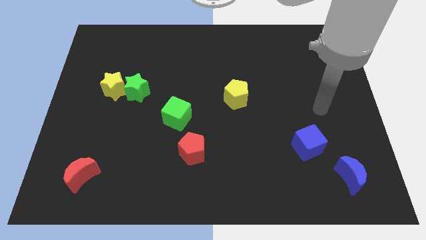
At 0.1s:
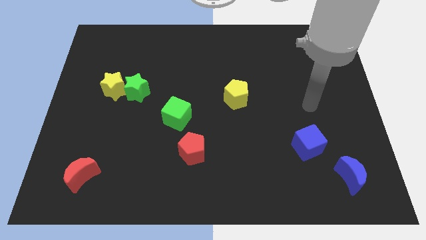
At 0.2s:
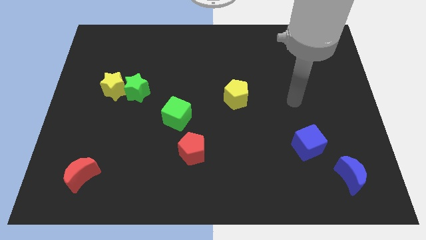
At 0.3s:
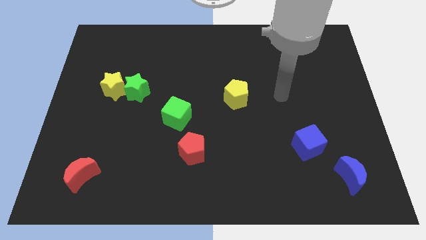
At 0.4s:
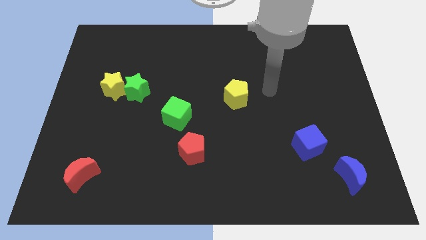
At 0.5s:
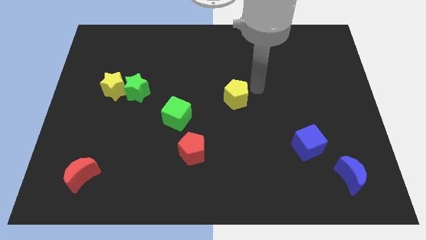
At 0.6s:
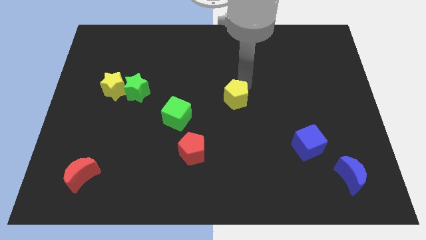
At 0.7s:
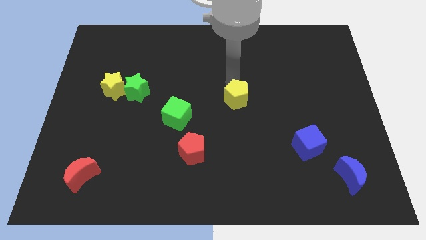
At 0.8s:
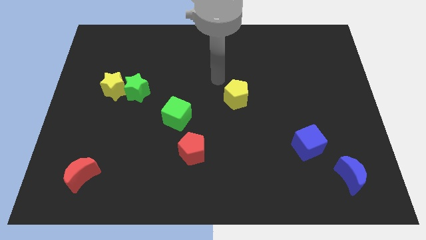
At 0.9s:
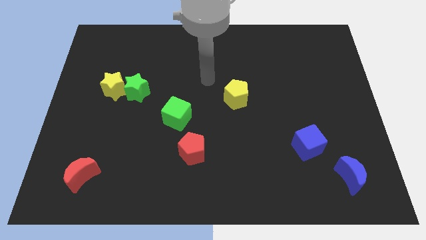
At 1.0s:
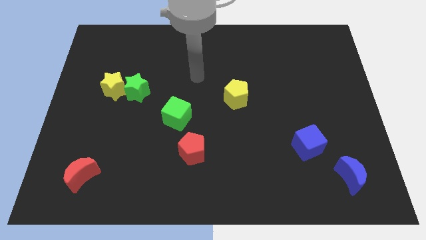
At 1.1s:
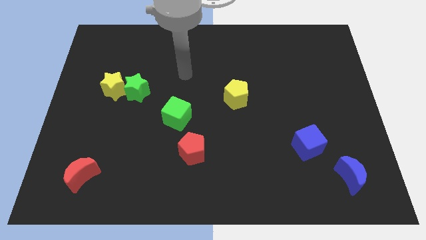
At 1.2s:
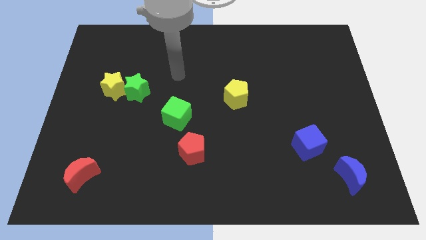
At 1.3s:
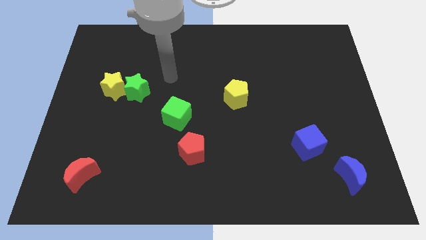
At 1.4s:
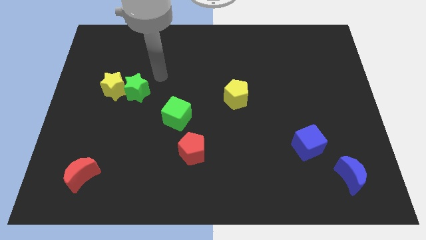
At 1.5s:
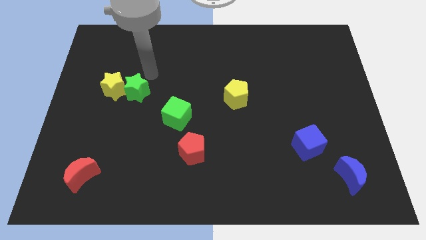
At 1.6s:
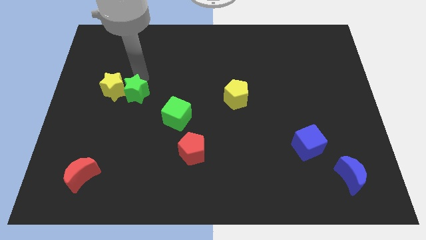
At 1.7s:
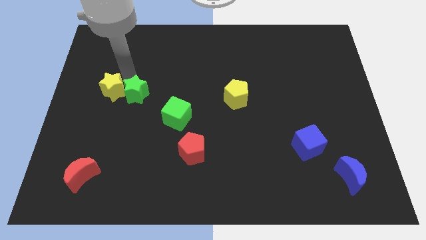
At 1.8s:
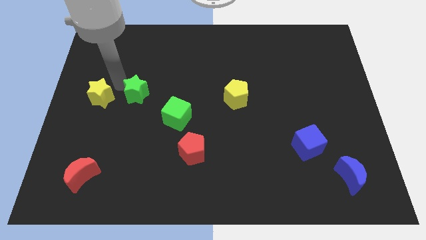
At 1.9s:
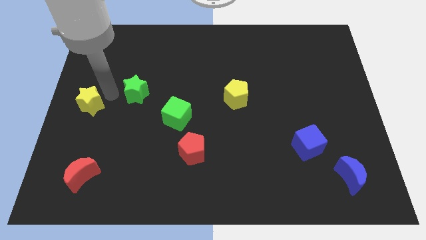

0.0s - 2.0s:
move the green star away from the yellow star

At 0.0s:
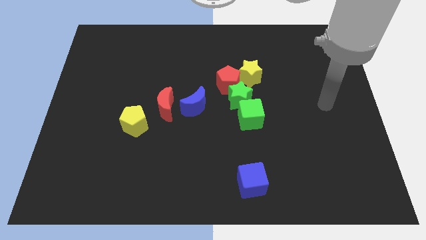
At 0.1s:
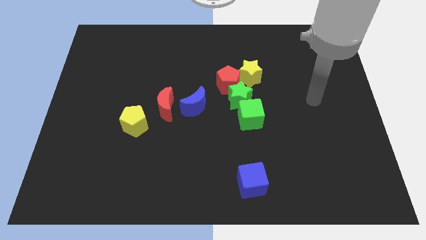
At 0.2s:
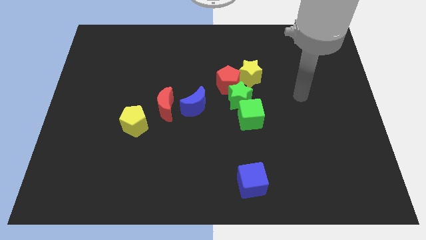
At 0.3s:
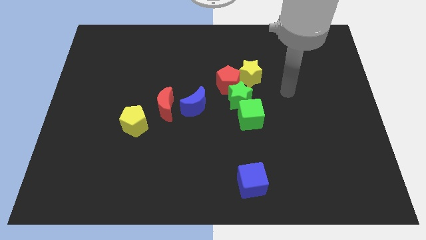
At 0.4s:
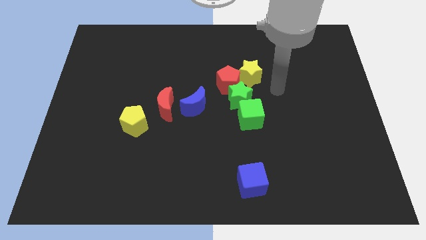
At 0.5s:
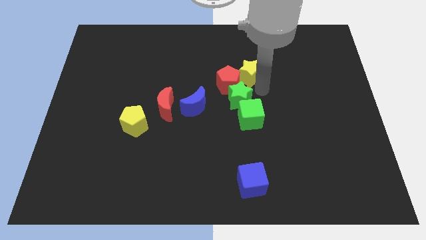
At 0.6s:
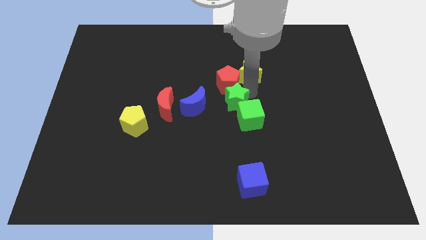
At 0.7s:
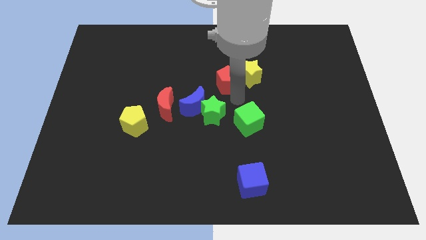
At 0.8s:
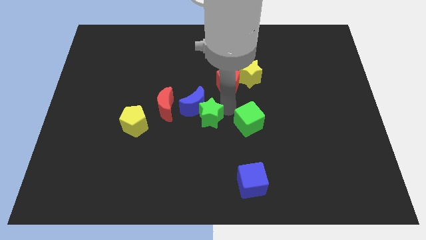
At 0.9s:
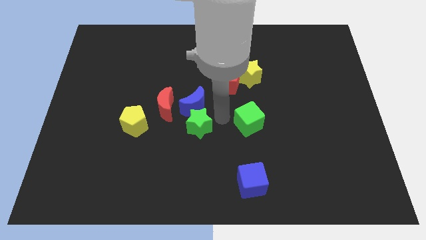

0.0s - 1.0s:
pull the green cube apart from the green star

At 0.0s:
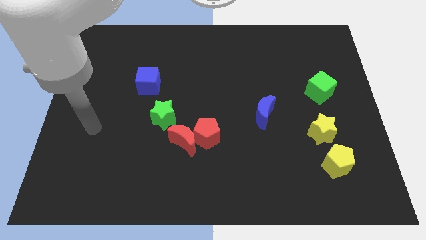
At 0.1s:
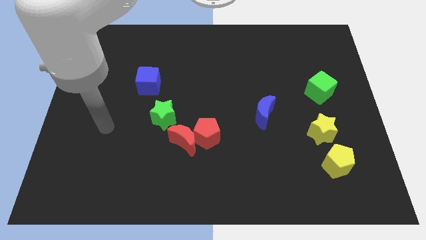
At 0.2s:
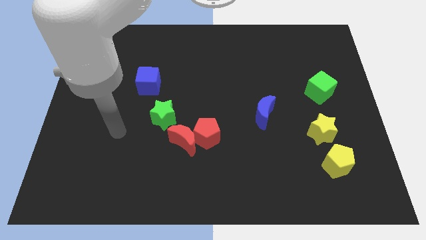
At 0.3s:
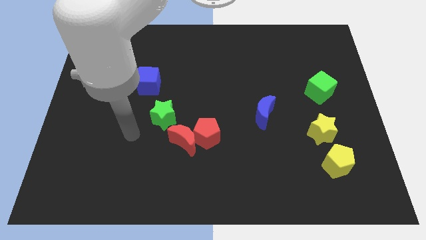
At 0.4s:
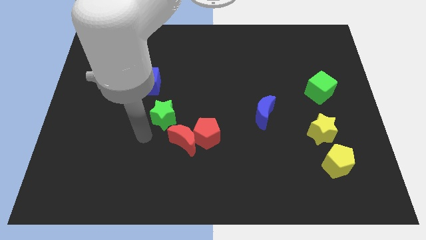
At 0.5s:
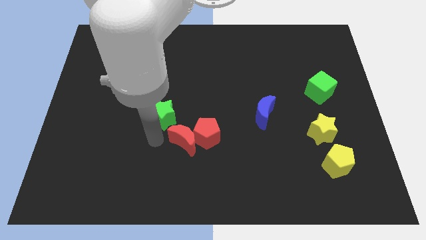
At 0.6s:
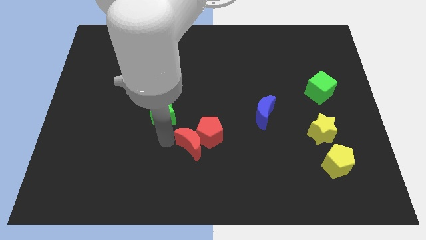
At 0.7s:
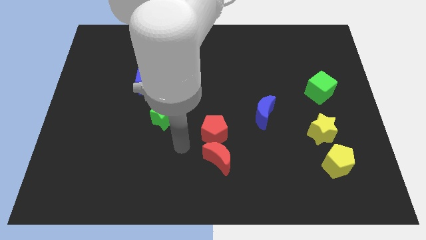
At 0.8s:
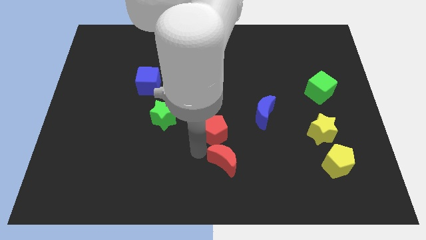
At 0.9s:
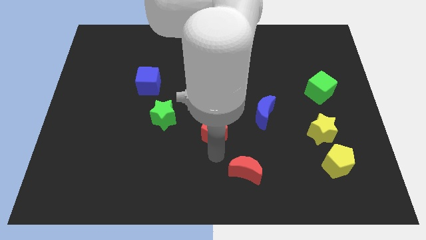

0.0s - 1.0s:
move the red pentagon away from the red moon

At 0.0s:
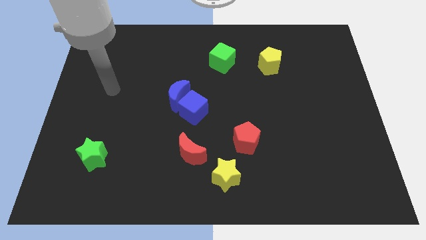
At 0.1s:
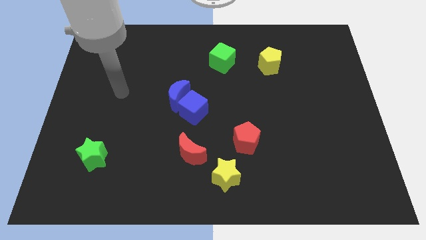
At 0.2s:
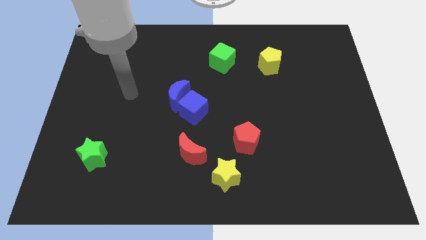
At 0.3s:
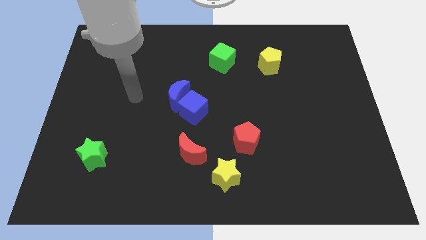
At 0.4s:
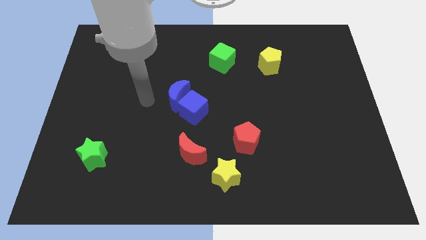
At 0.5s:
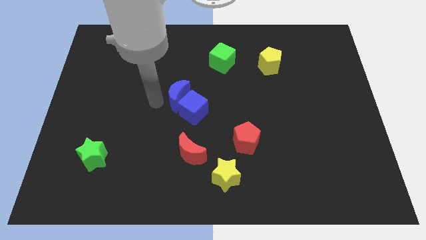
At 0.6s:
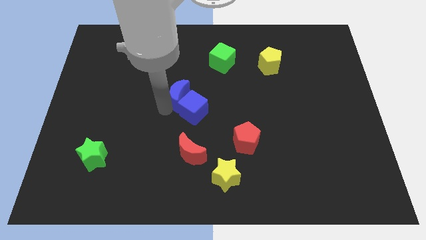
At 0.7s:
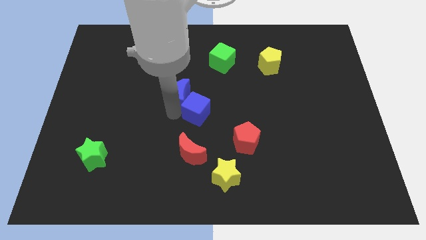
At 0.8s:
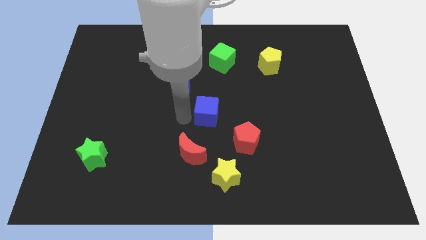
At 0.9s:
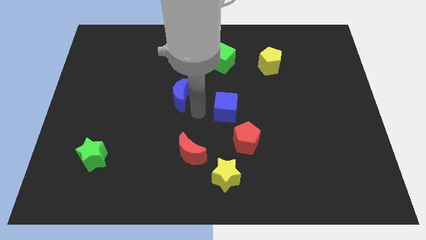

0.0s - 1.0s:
pull the blue moon apart from the blue cube

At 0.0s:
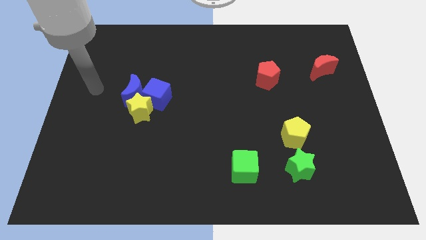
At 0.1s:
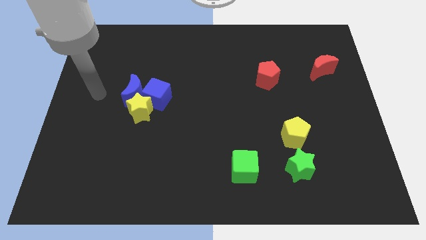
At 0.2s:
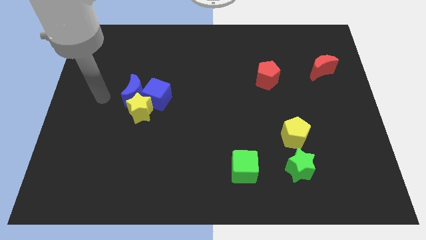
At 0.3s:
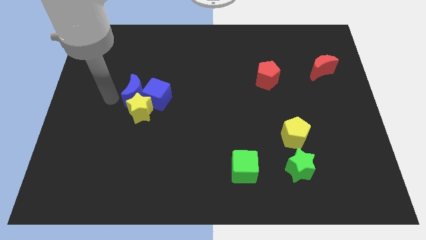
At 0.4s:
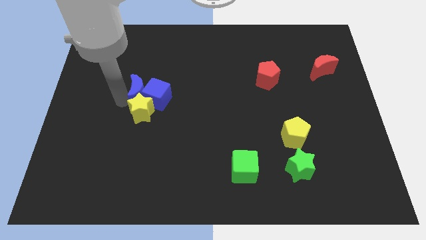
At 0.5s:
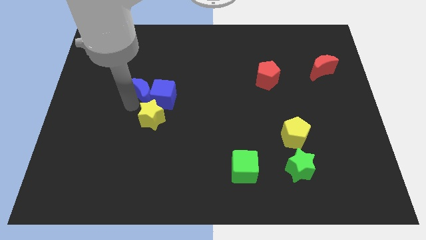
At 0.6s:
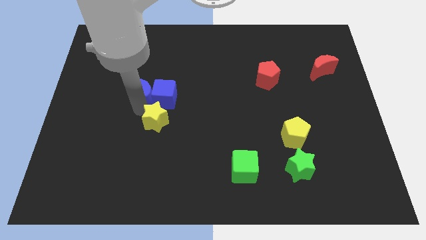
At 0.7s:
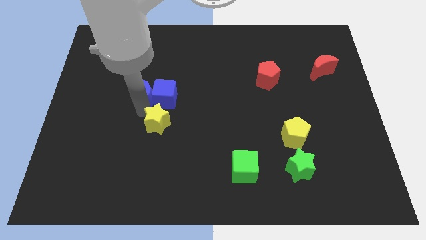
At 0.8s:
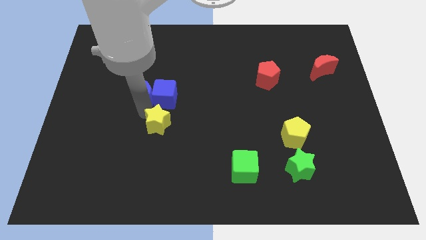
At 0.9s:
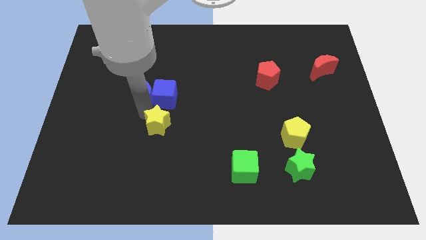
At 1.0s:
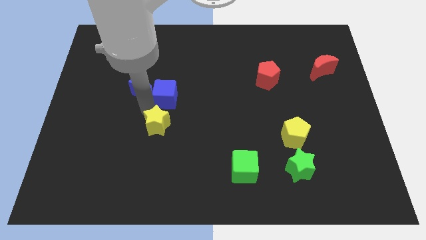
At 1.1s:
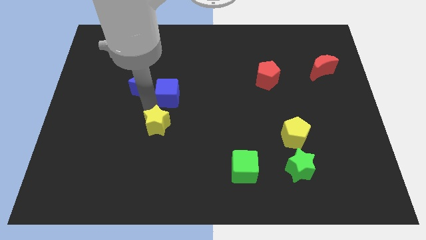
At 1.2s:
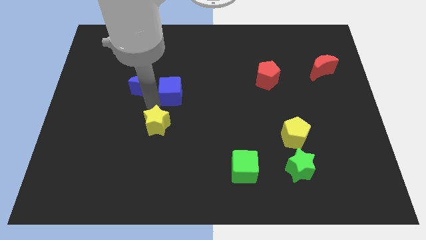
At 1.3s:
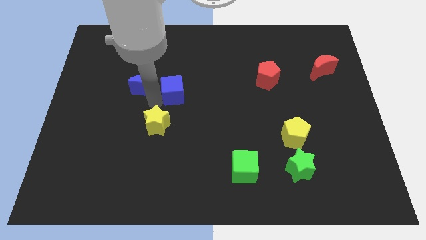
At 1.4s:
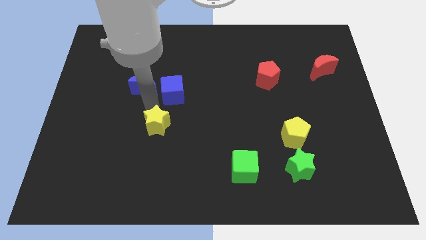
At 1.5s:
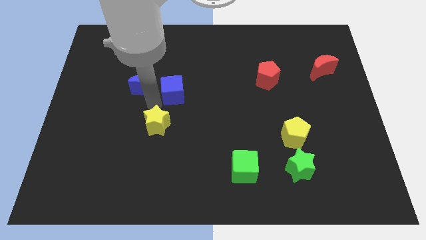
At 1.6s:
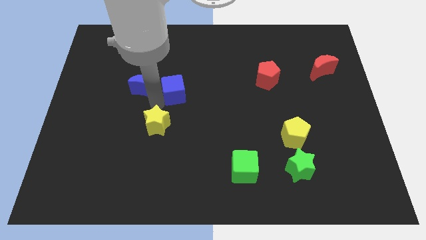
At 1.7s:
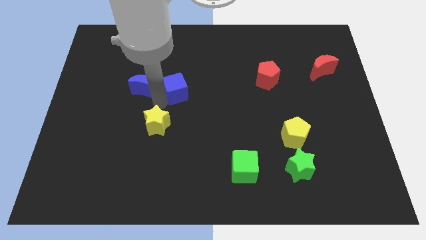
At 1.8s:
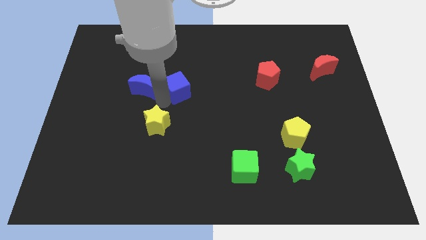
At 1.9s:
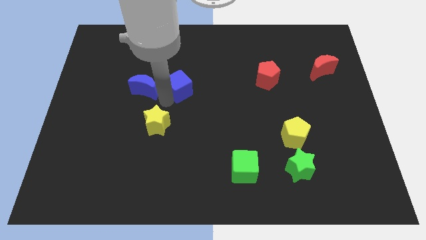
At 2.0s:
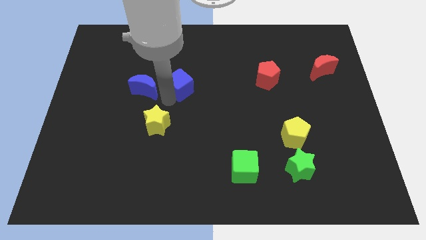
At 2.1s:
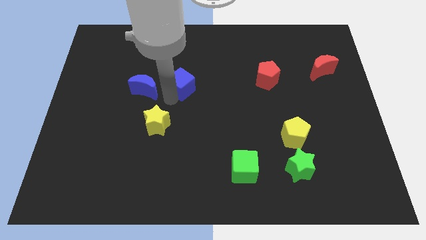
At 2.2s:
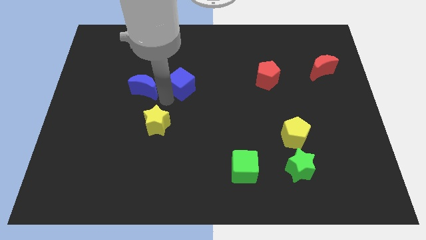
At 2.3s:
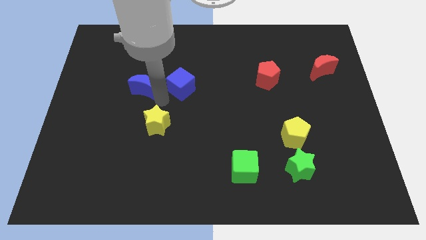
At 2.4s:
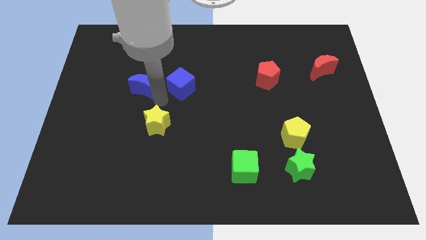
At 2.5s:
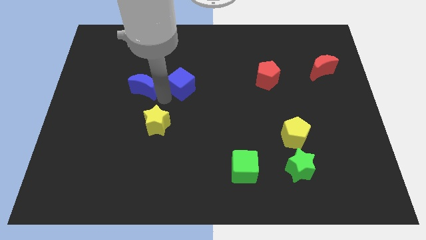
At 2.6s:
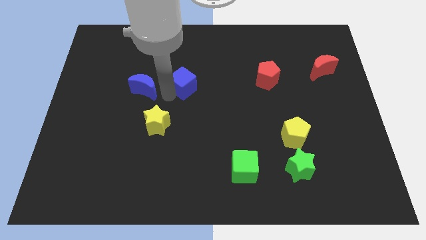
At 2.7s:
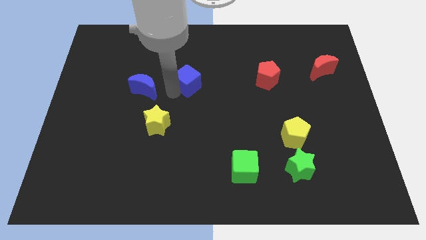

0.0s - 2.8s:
pull the blue cube apart from the yellow star and blue moon

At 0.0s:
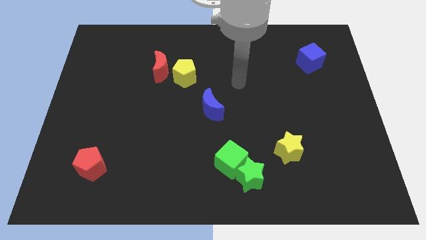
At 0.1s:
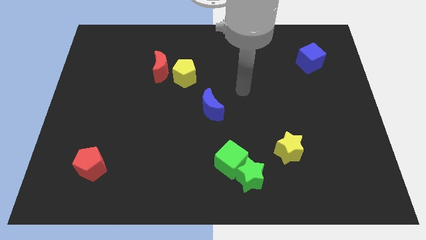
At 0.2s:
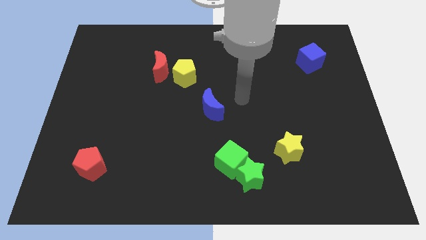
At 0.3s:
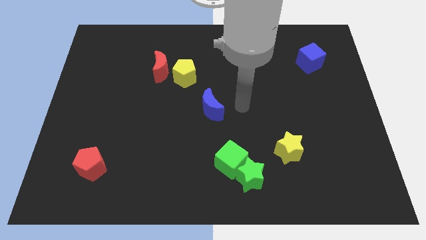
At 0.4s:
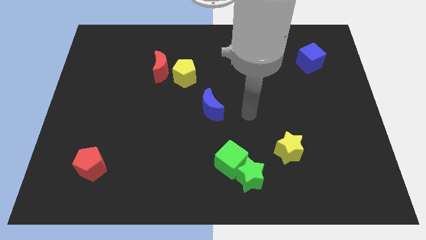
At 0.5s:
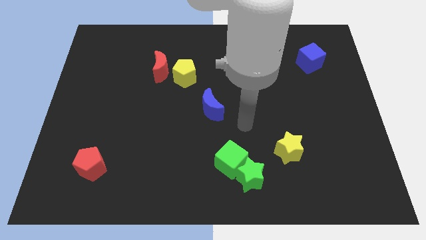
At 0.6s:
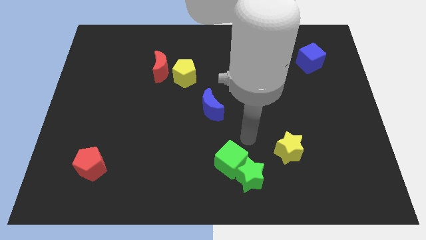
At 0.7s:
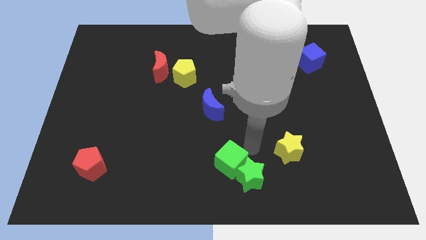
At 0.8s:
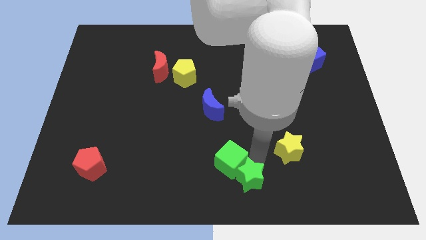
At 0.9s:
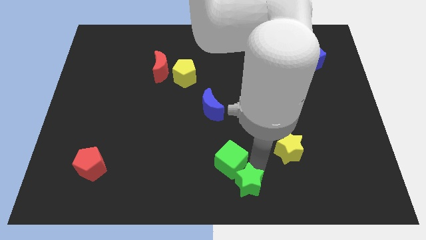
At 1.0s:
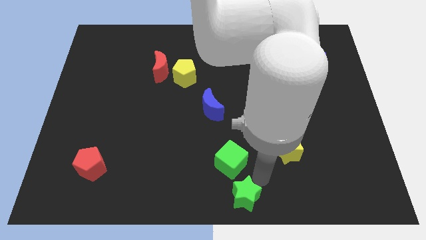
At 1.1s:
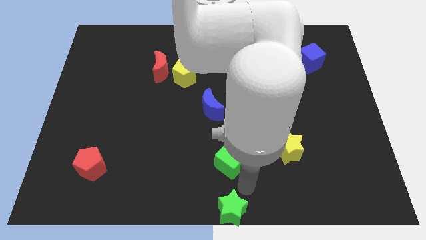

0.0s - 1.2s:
separate the green cube from the green star

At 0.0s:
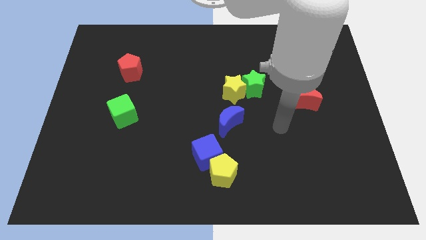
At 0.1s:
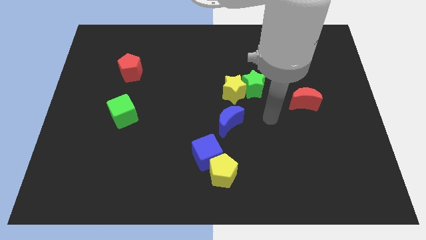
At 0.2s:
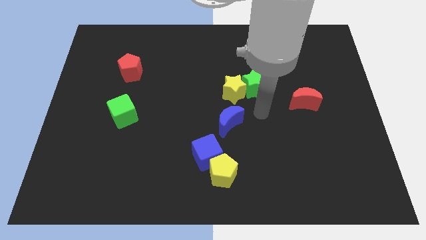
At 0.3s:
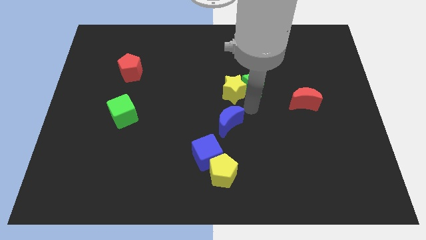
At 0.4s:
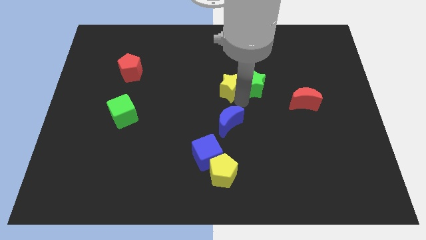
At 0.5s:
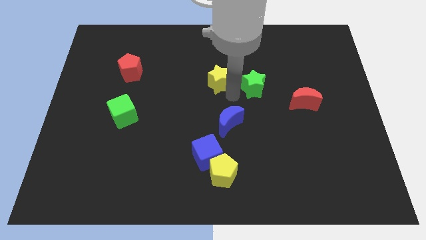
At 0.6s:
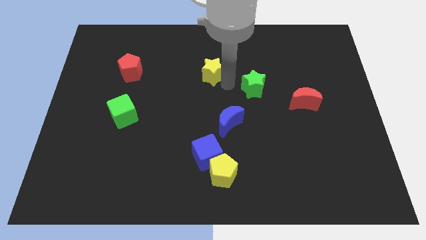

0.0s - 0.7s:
separate the green star from the yellow star
